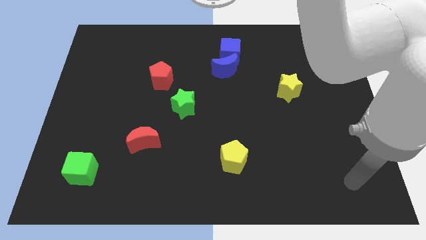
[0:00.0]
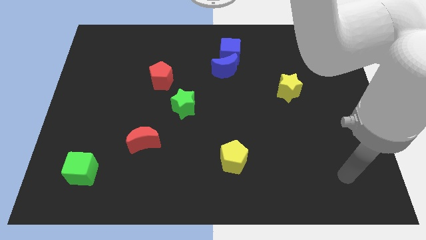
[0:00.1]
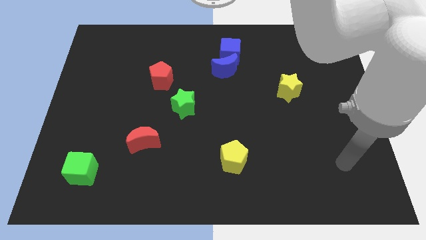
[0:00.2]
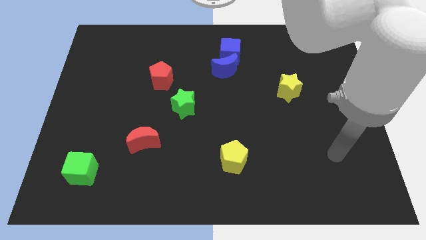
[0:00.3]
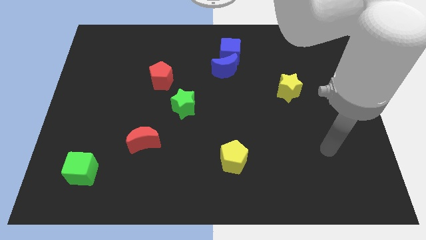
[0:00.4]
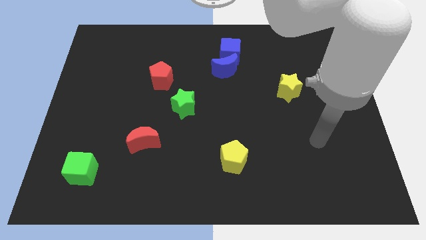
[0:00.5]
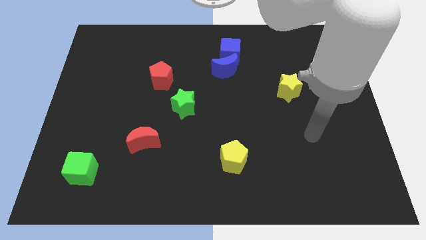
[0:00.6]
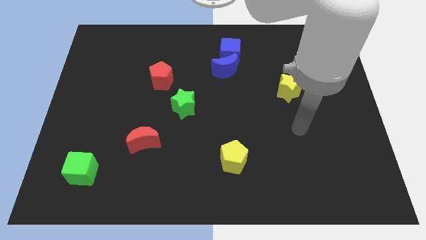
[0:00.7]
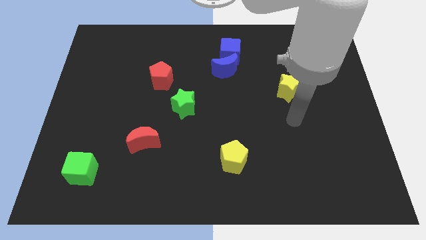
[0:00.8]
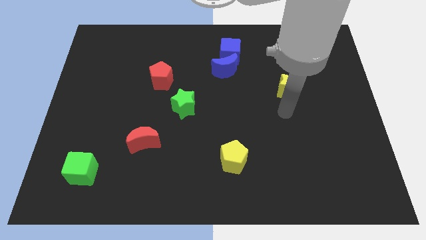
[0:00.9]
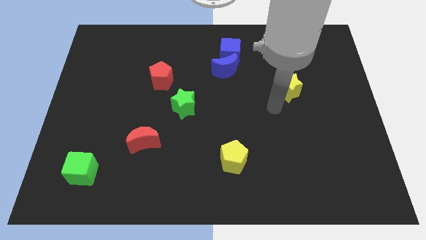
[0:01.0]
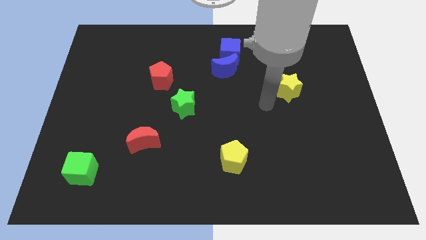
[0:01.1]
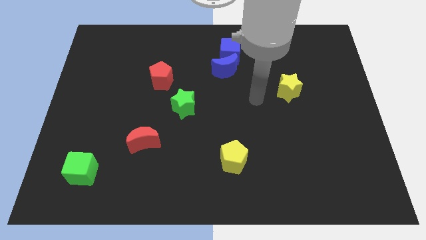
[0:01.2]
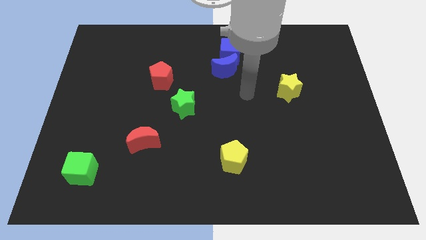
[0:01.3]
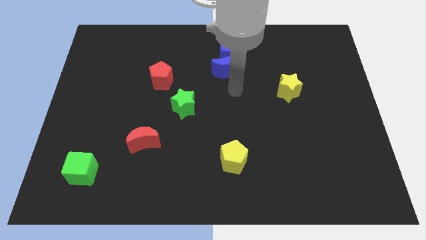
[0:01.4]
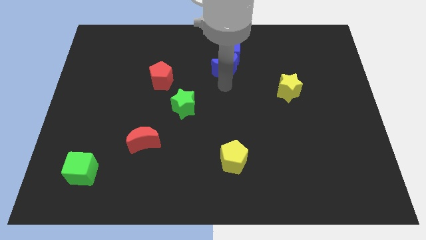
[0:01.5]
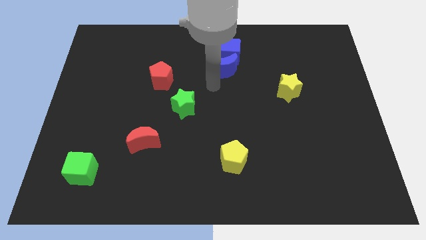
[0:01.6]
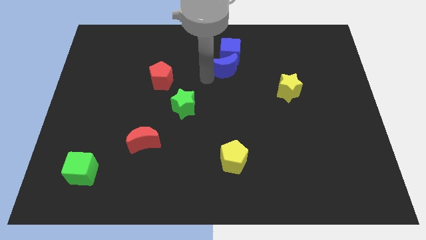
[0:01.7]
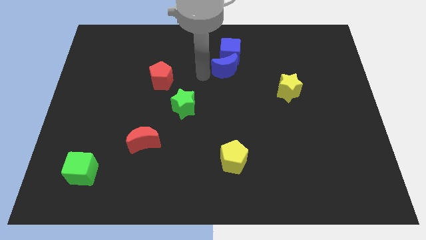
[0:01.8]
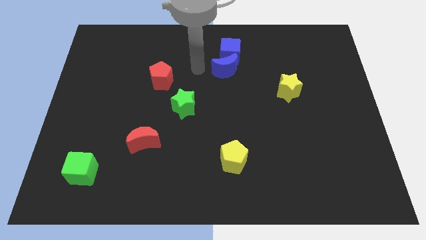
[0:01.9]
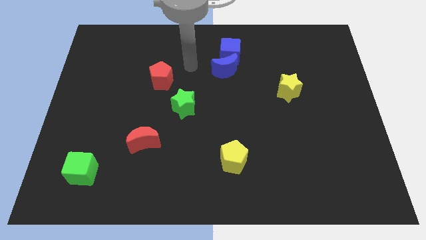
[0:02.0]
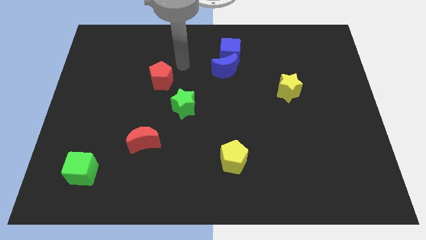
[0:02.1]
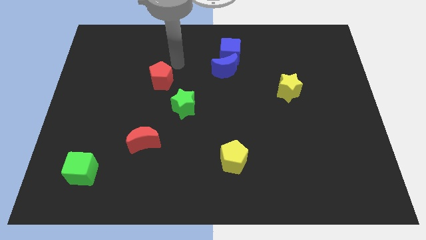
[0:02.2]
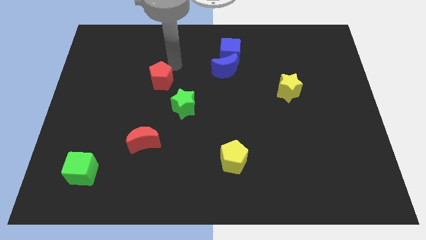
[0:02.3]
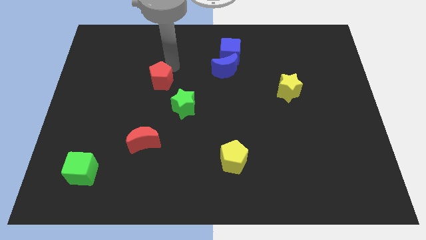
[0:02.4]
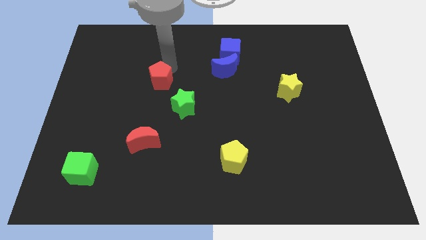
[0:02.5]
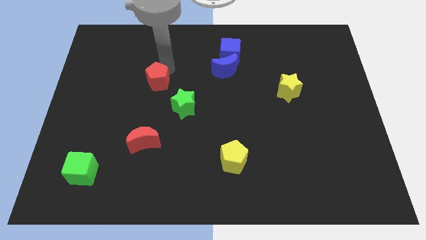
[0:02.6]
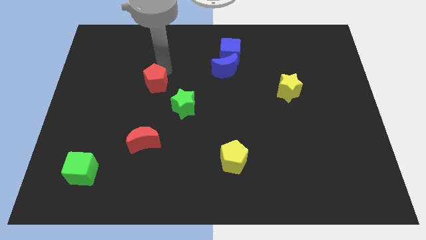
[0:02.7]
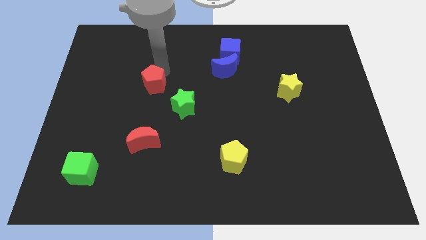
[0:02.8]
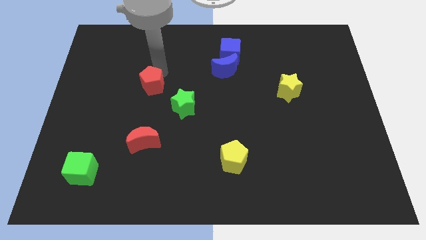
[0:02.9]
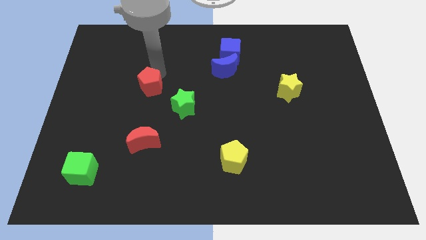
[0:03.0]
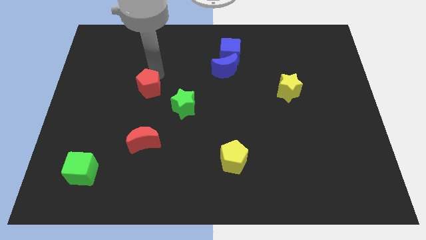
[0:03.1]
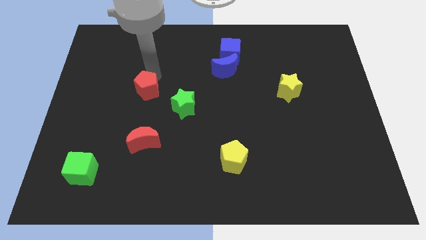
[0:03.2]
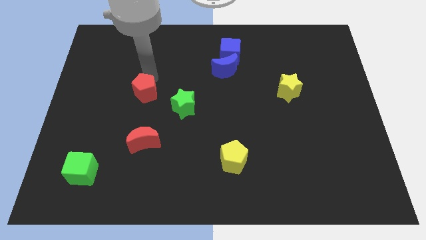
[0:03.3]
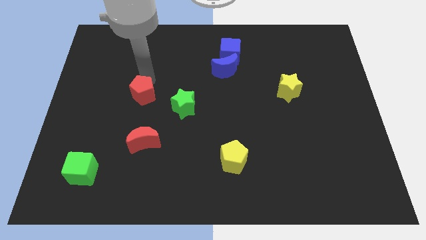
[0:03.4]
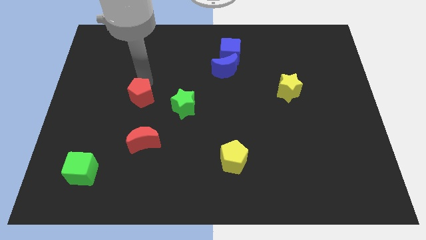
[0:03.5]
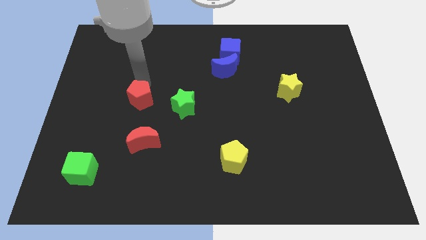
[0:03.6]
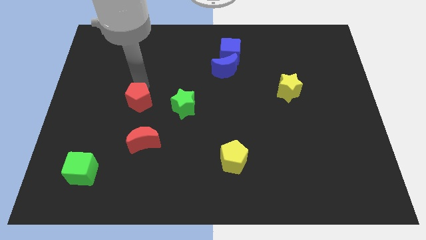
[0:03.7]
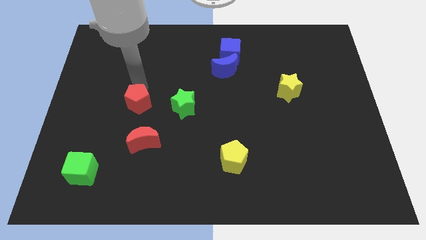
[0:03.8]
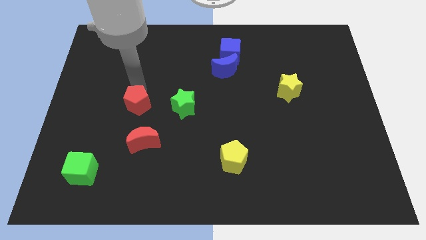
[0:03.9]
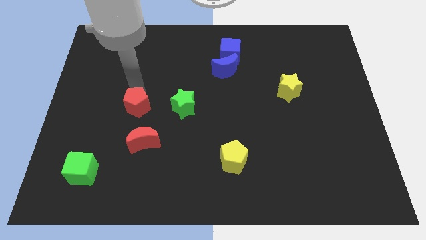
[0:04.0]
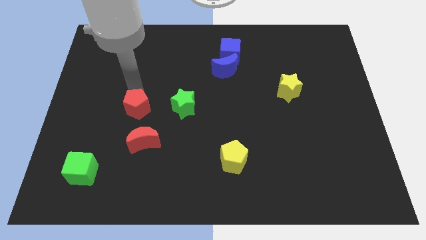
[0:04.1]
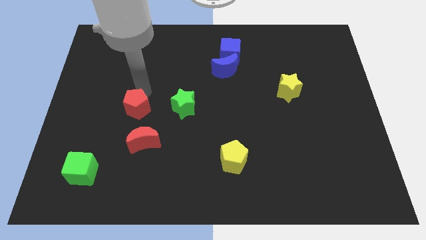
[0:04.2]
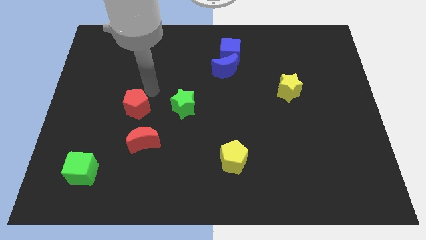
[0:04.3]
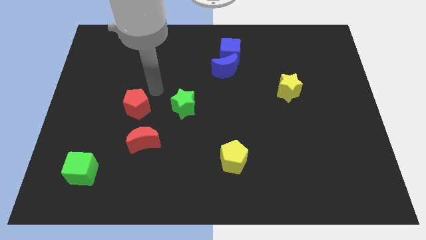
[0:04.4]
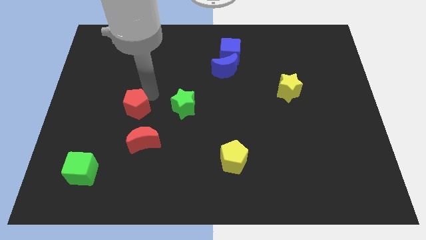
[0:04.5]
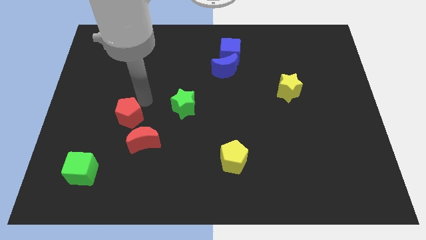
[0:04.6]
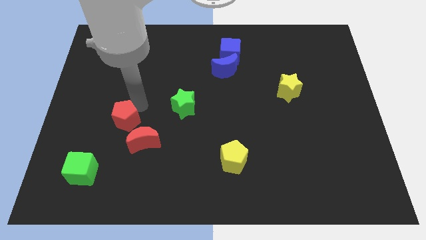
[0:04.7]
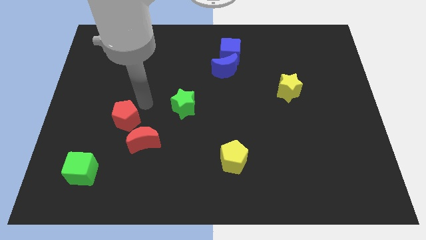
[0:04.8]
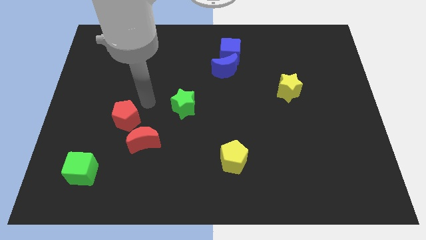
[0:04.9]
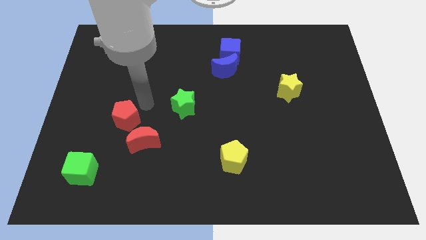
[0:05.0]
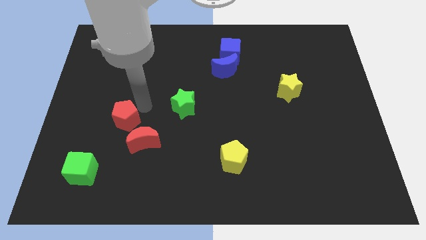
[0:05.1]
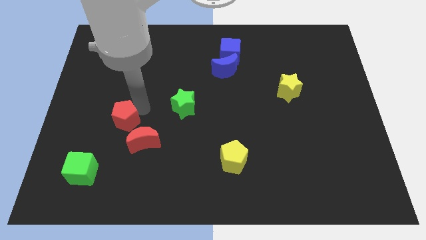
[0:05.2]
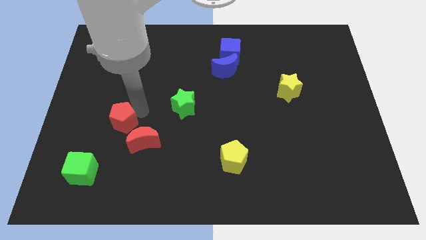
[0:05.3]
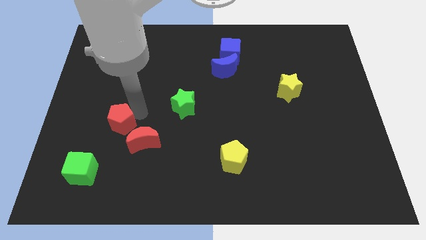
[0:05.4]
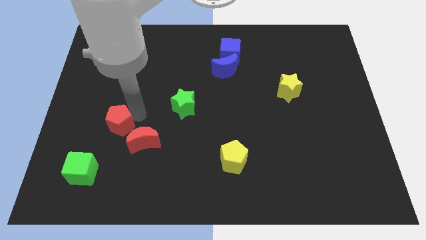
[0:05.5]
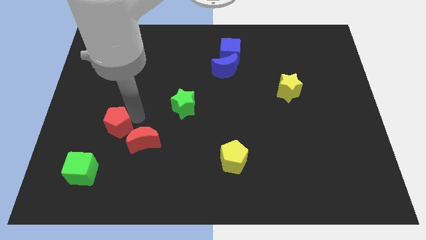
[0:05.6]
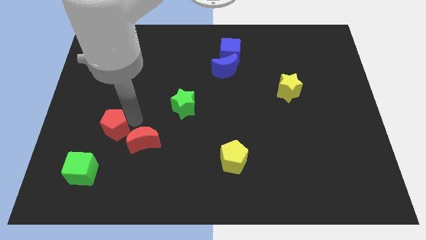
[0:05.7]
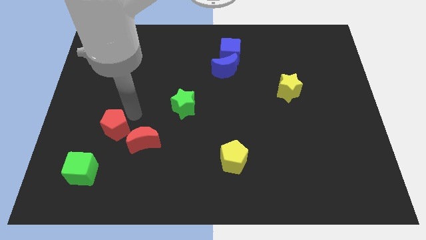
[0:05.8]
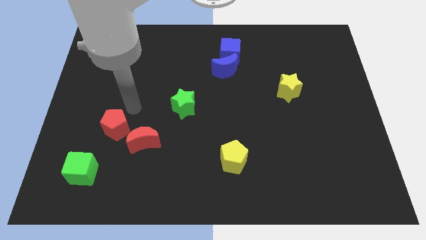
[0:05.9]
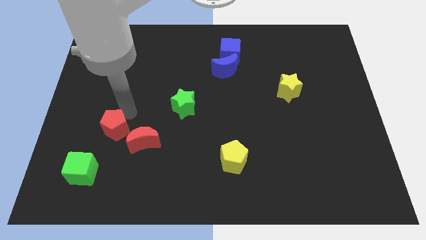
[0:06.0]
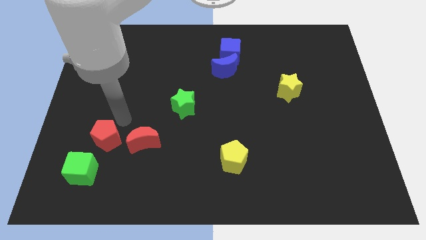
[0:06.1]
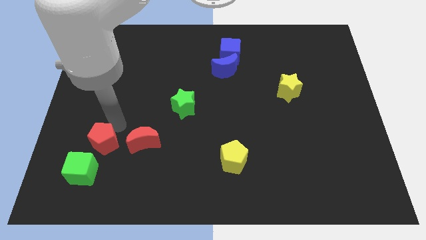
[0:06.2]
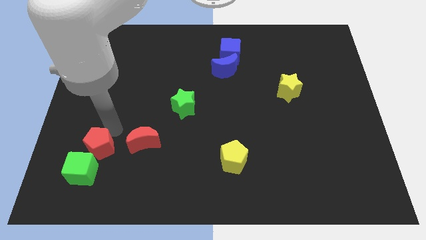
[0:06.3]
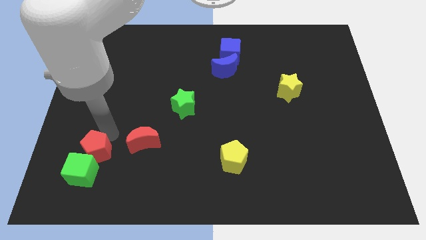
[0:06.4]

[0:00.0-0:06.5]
move the red pentagon close to the green cube

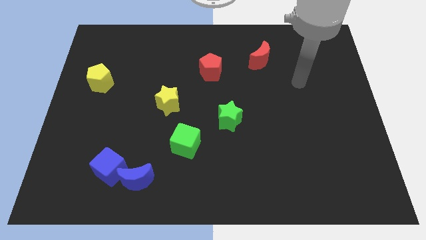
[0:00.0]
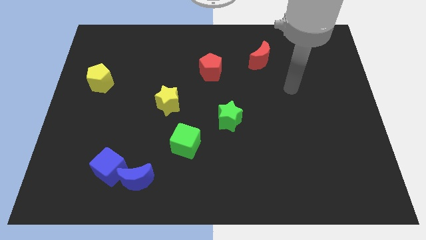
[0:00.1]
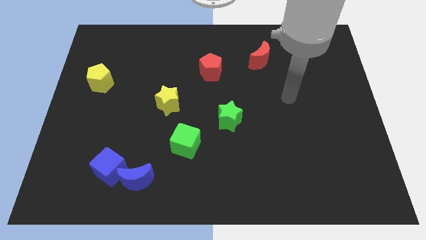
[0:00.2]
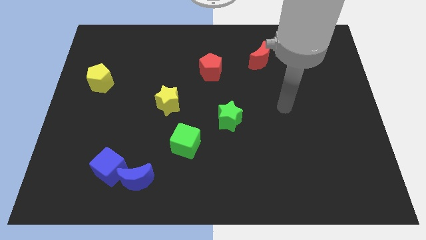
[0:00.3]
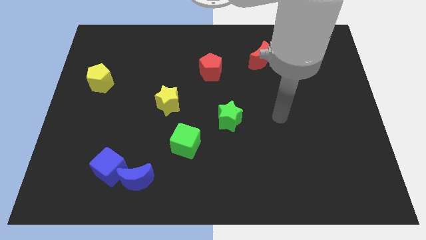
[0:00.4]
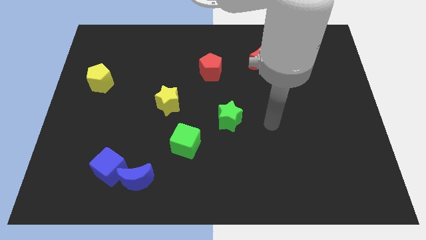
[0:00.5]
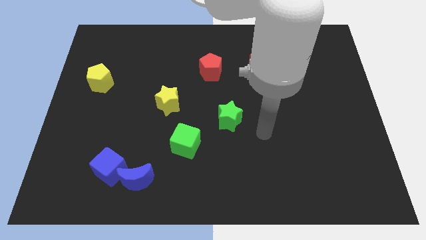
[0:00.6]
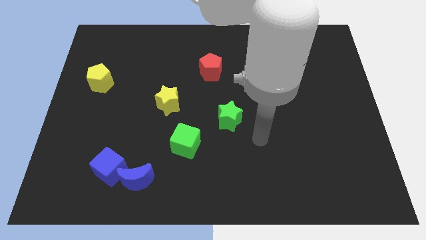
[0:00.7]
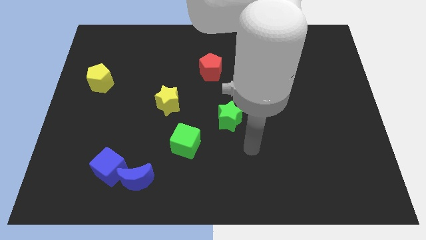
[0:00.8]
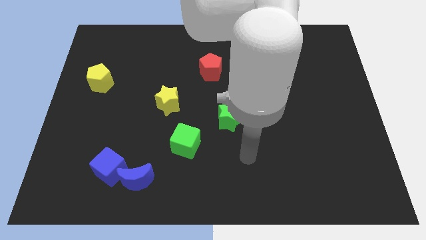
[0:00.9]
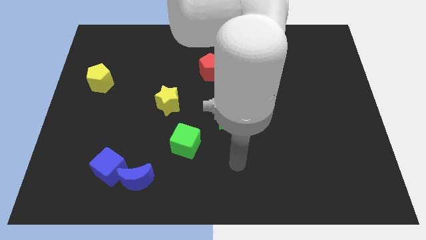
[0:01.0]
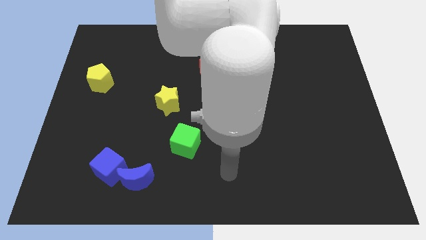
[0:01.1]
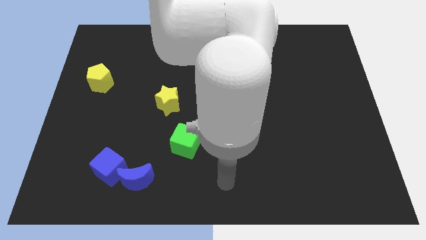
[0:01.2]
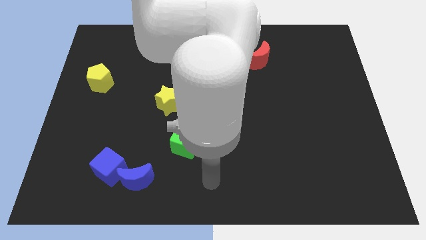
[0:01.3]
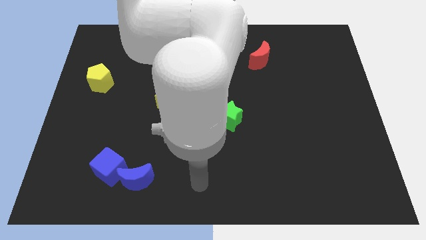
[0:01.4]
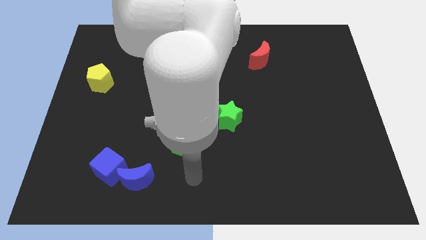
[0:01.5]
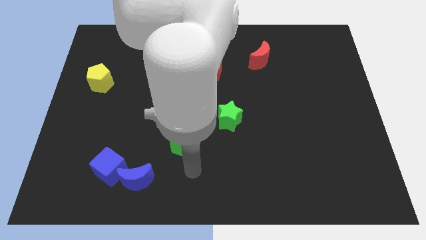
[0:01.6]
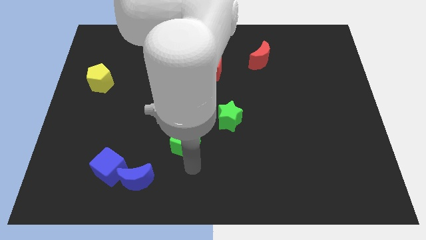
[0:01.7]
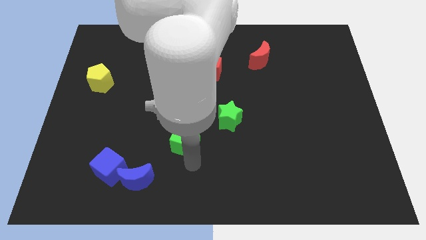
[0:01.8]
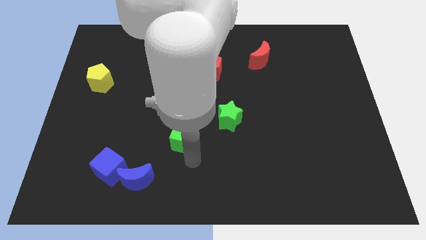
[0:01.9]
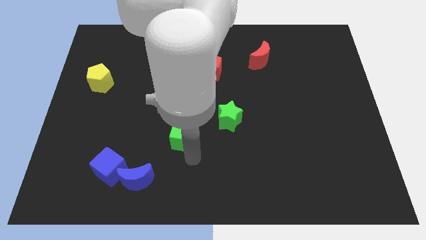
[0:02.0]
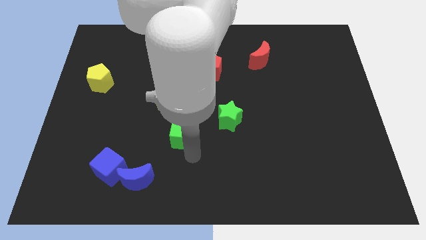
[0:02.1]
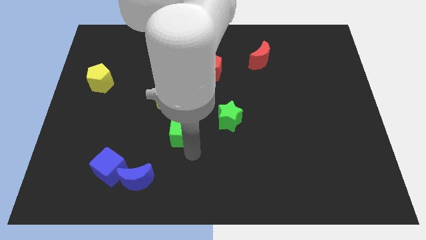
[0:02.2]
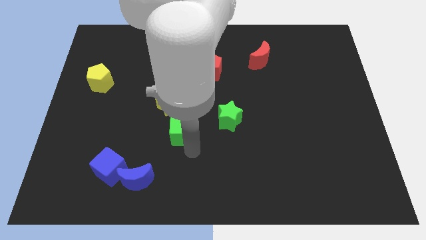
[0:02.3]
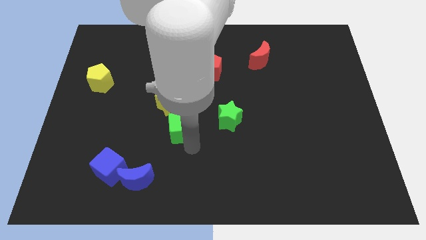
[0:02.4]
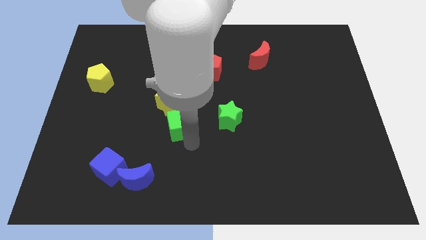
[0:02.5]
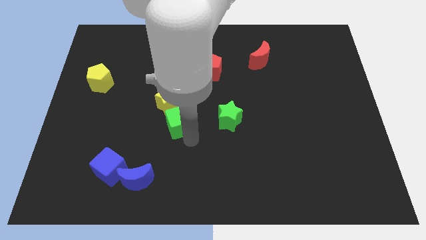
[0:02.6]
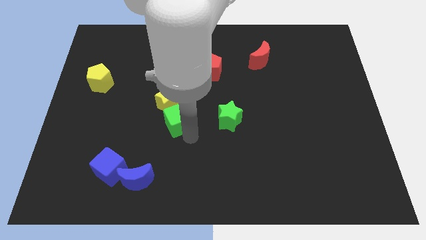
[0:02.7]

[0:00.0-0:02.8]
move the green cube close to the yellow star
